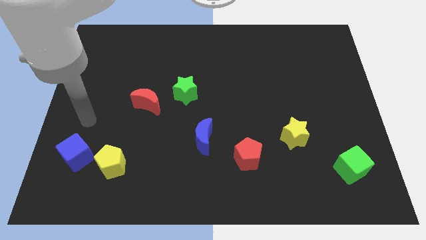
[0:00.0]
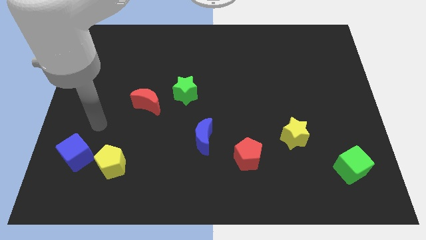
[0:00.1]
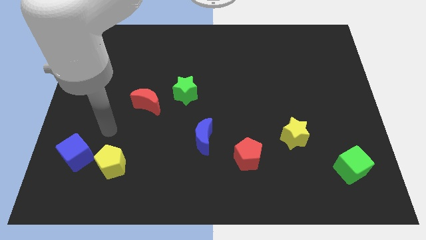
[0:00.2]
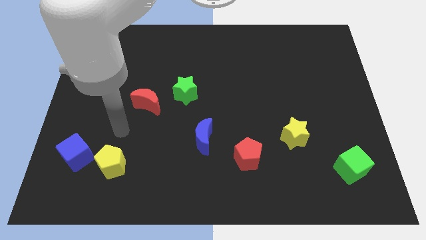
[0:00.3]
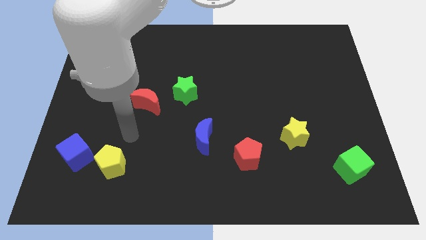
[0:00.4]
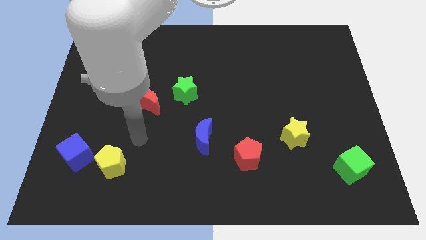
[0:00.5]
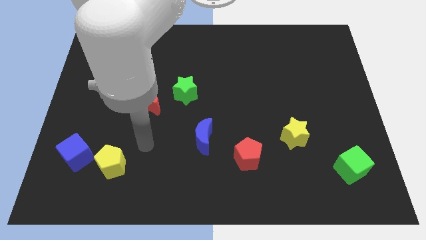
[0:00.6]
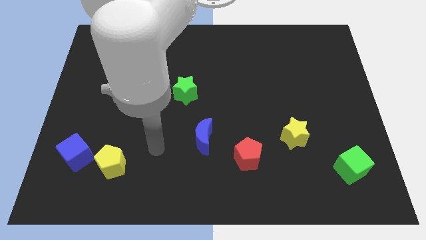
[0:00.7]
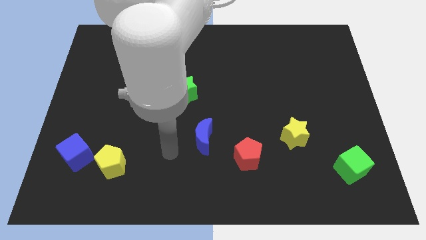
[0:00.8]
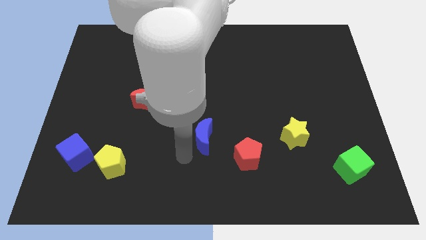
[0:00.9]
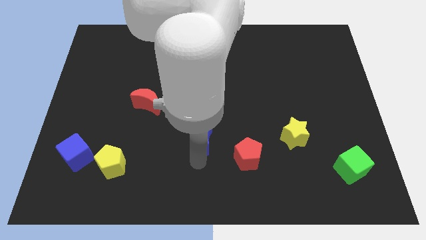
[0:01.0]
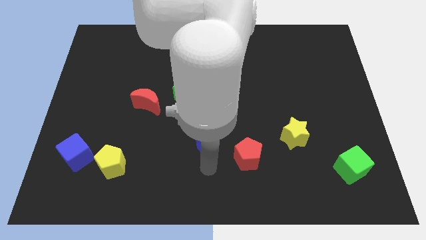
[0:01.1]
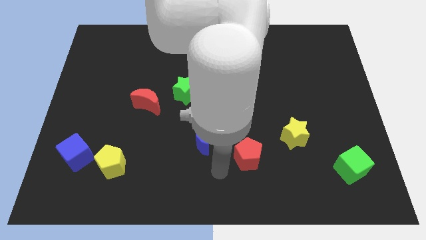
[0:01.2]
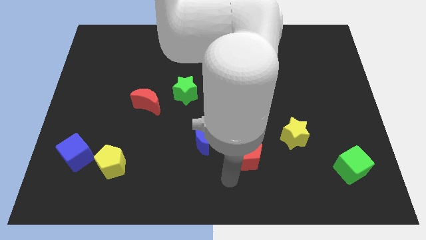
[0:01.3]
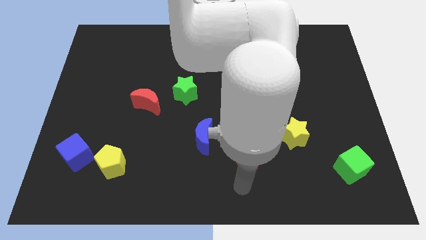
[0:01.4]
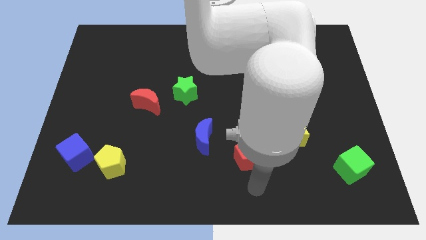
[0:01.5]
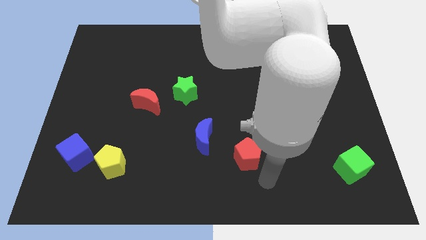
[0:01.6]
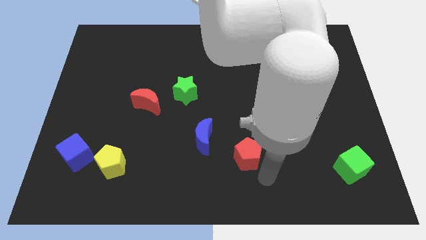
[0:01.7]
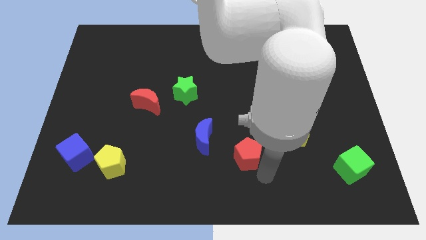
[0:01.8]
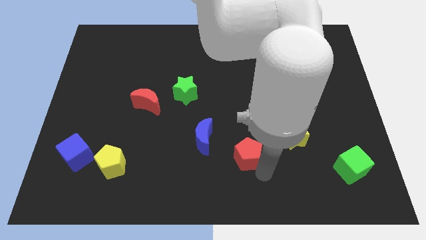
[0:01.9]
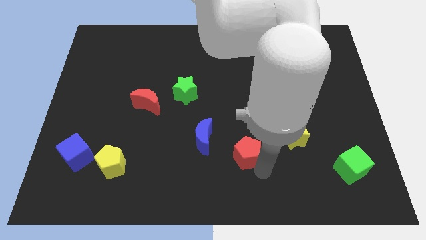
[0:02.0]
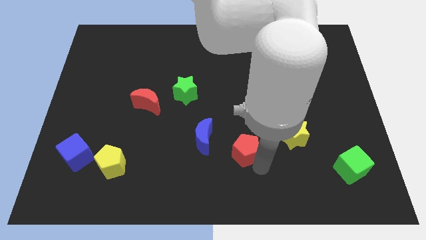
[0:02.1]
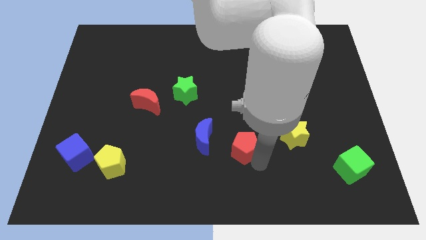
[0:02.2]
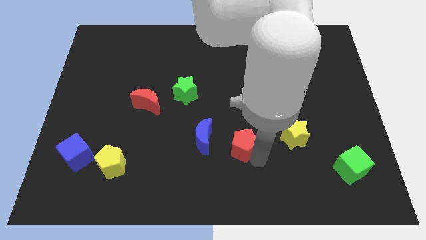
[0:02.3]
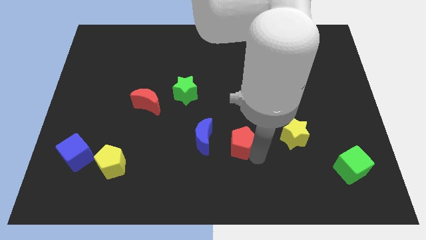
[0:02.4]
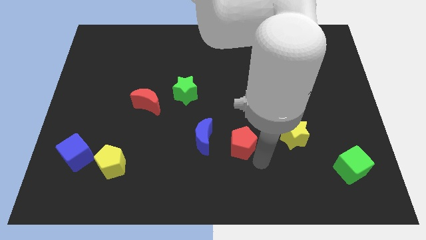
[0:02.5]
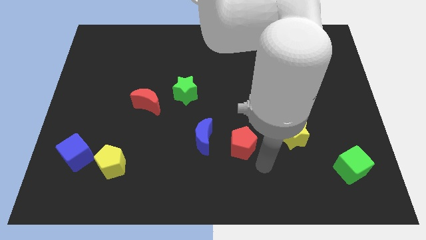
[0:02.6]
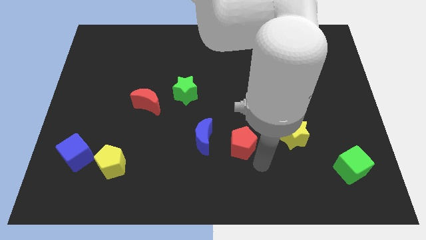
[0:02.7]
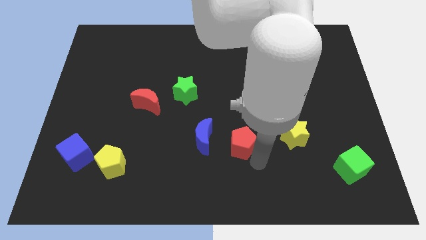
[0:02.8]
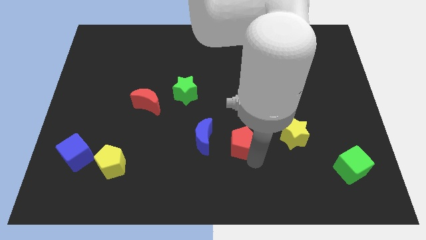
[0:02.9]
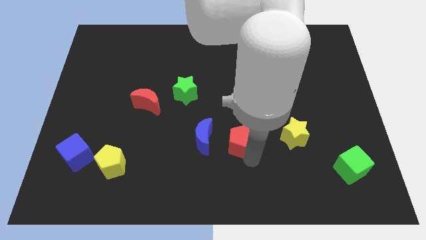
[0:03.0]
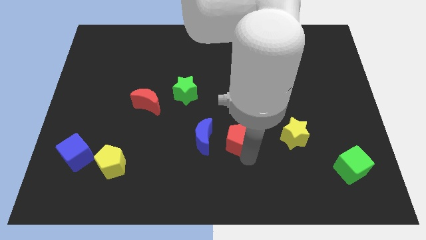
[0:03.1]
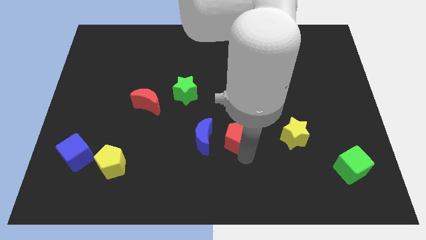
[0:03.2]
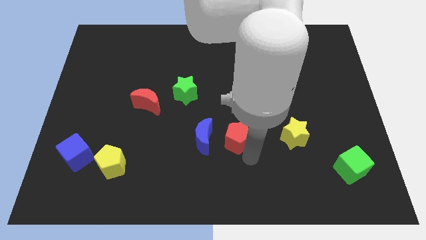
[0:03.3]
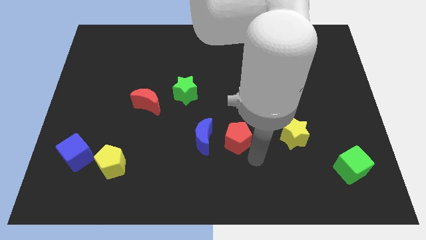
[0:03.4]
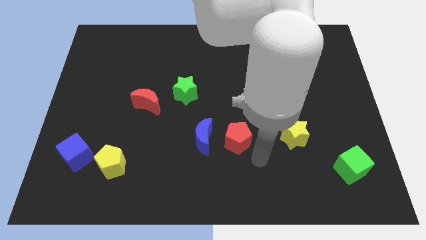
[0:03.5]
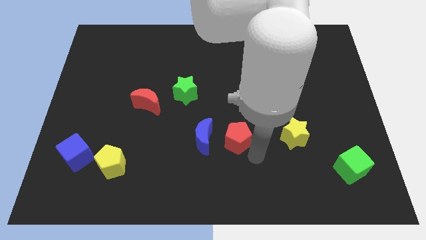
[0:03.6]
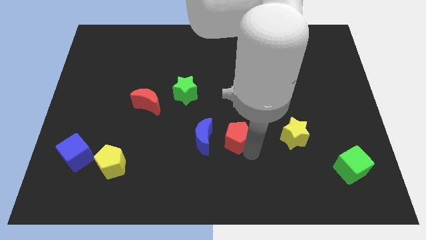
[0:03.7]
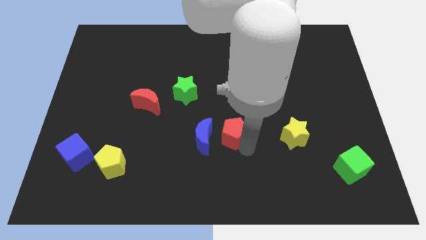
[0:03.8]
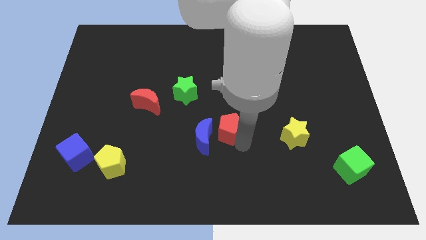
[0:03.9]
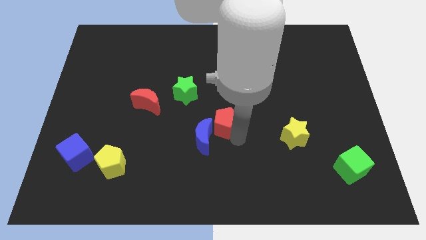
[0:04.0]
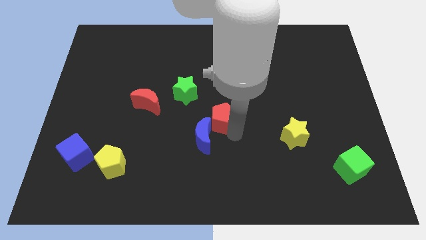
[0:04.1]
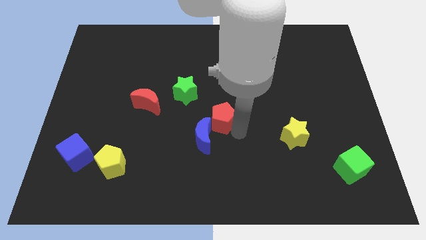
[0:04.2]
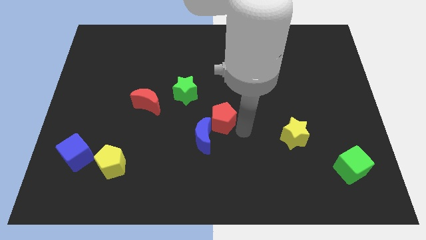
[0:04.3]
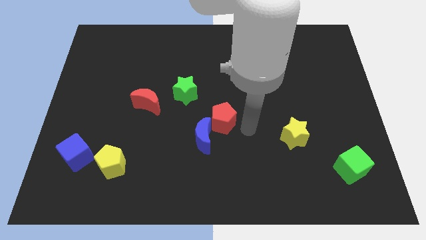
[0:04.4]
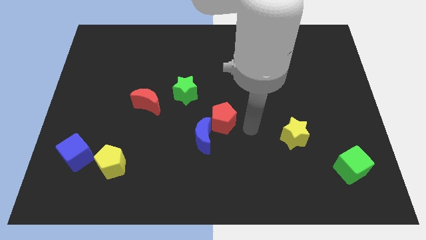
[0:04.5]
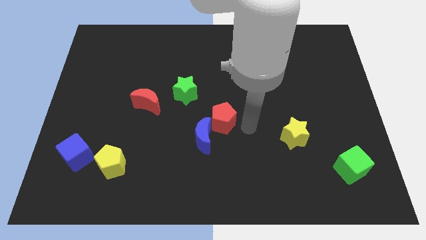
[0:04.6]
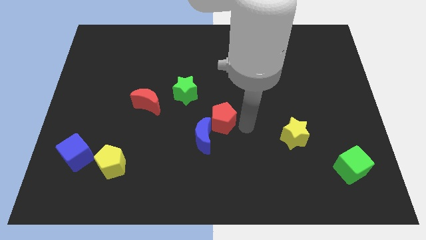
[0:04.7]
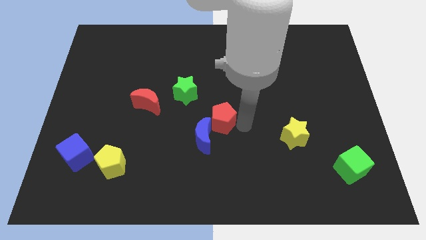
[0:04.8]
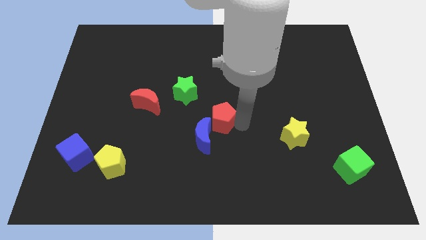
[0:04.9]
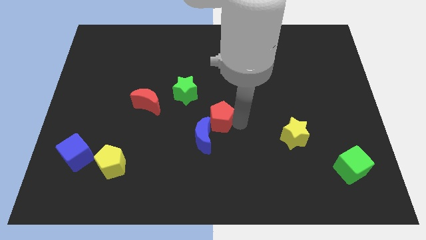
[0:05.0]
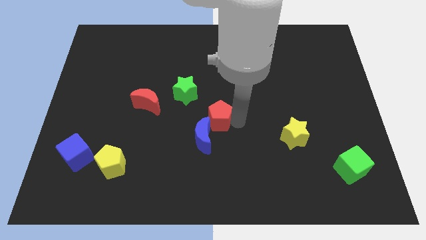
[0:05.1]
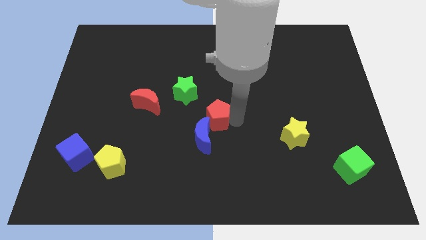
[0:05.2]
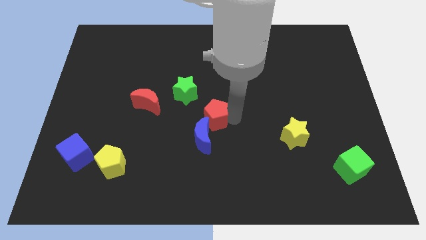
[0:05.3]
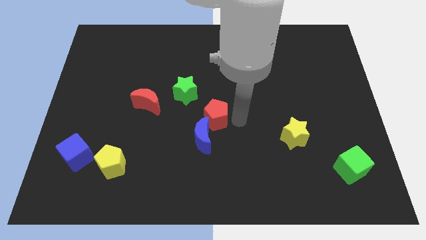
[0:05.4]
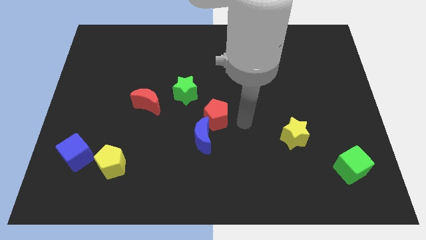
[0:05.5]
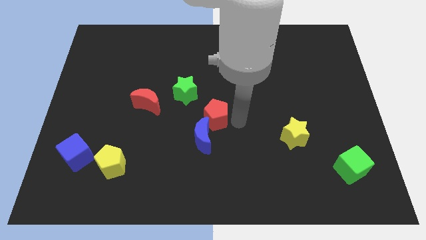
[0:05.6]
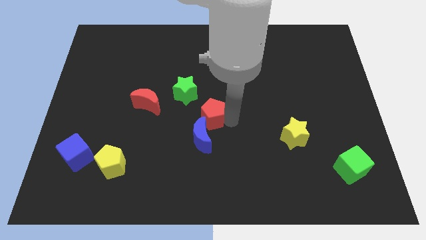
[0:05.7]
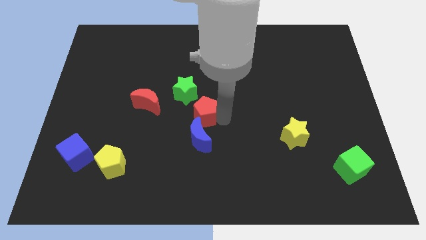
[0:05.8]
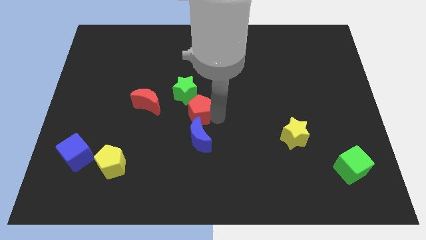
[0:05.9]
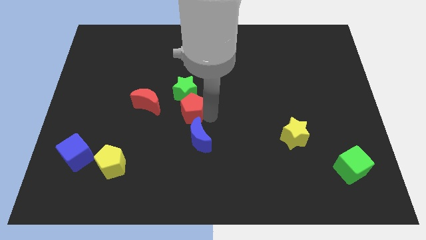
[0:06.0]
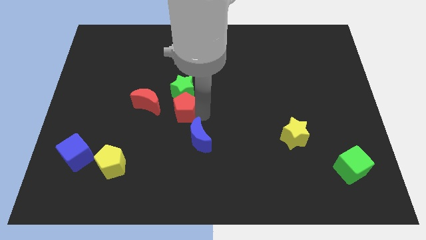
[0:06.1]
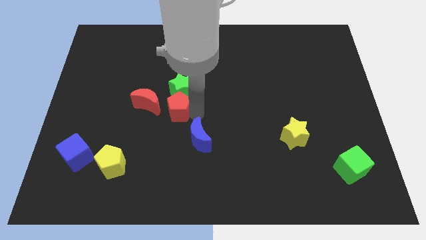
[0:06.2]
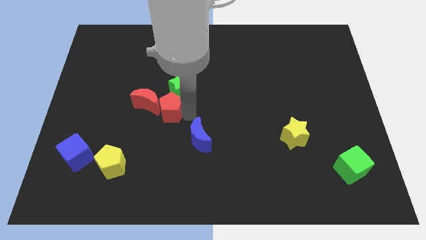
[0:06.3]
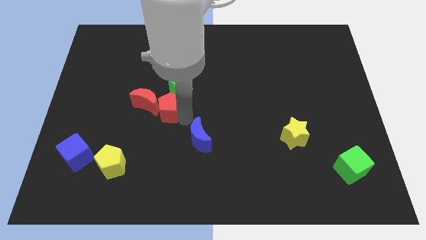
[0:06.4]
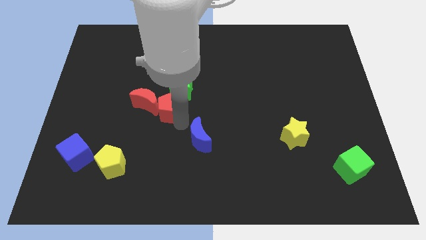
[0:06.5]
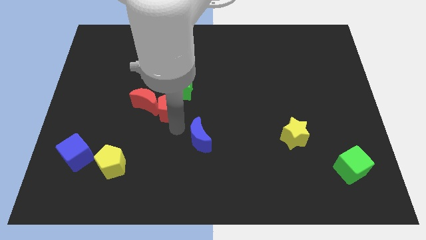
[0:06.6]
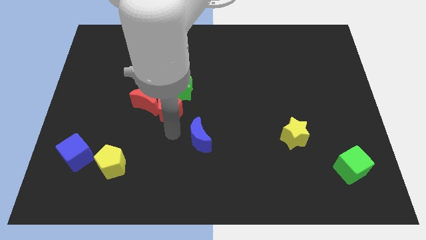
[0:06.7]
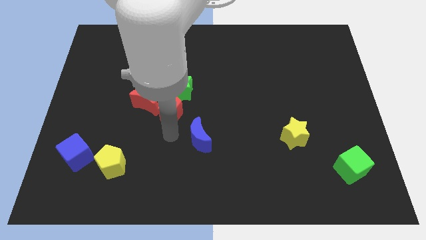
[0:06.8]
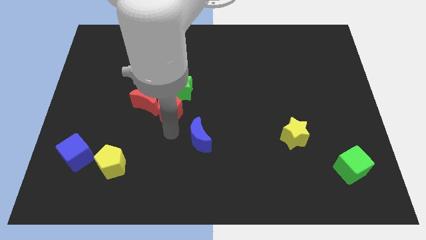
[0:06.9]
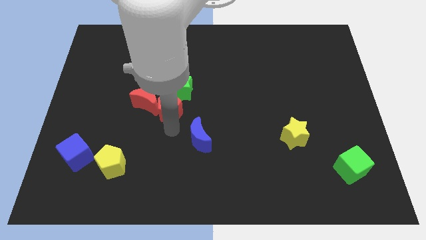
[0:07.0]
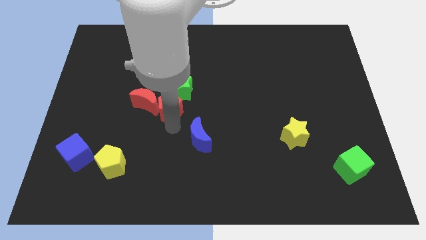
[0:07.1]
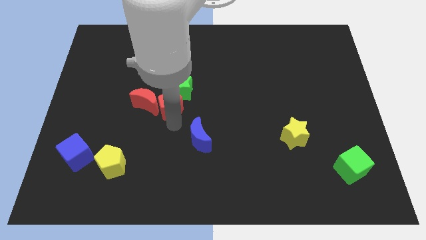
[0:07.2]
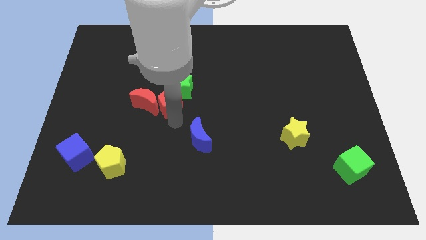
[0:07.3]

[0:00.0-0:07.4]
move the red pentagon diagonally up and to the right of the red moon
